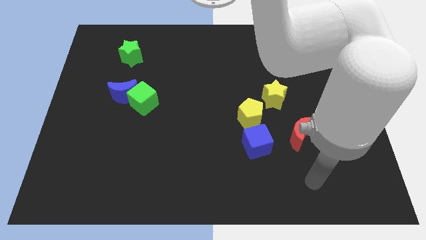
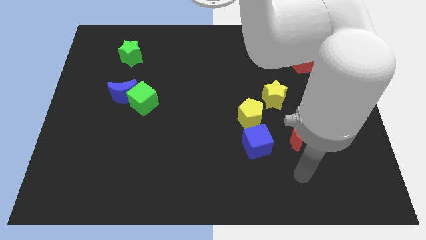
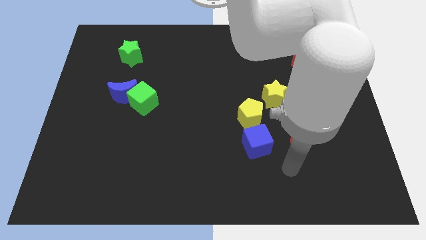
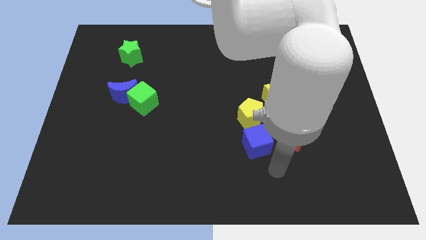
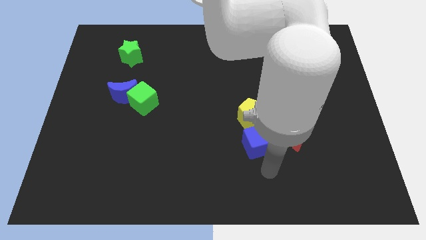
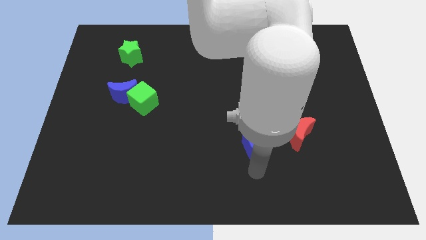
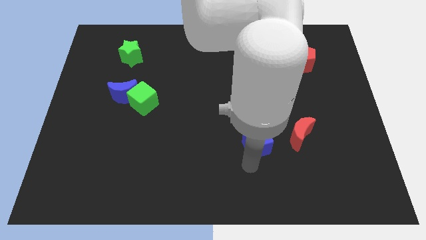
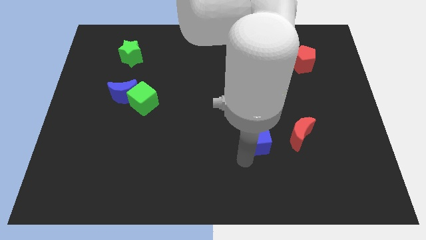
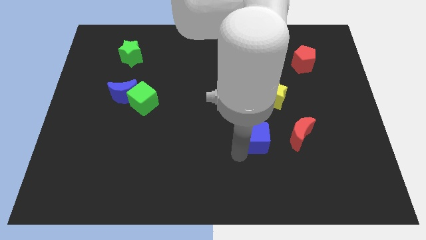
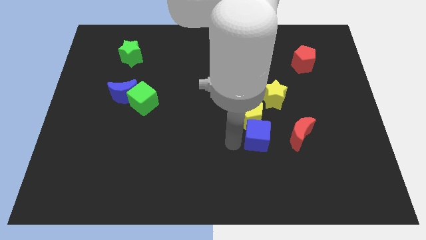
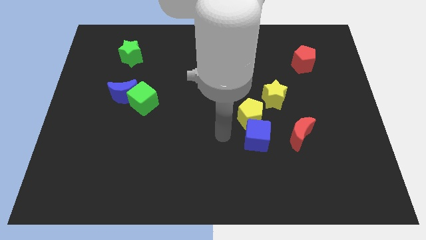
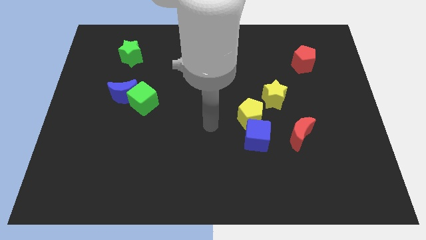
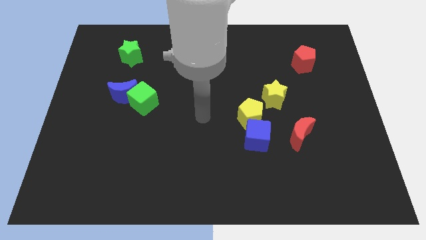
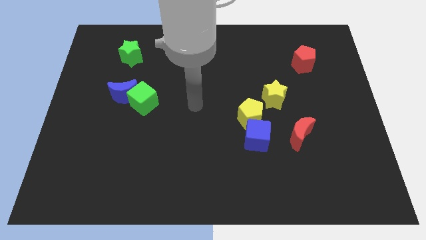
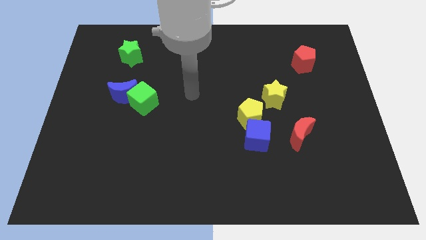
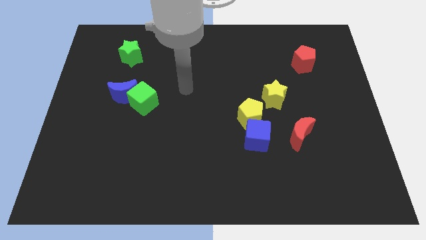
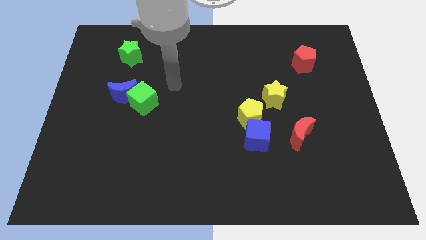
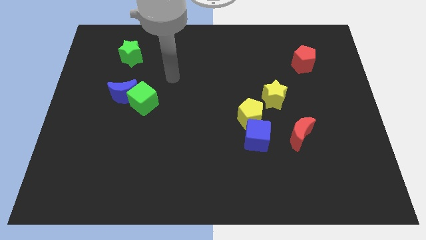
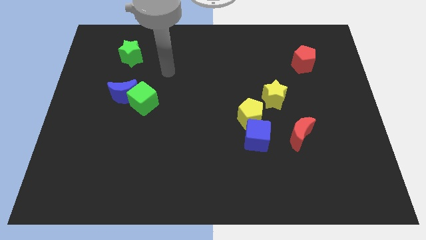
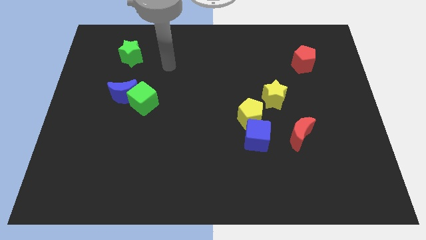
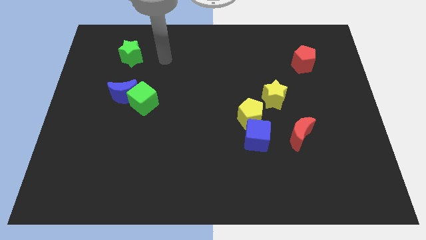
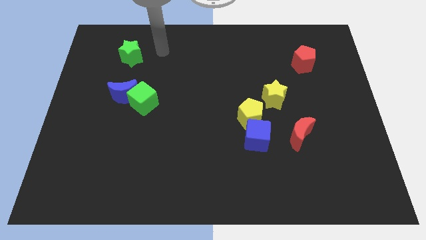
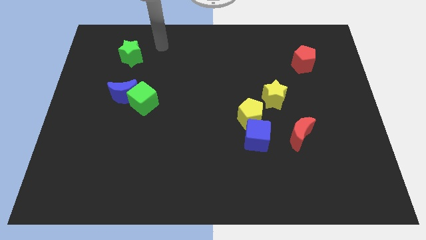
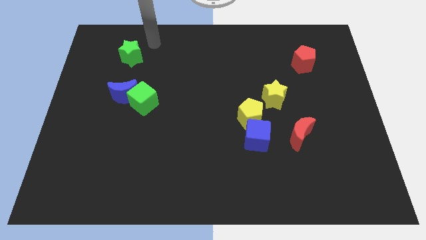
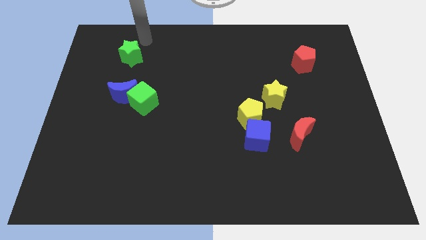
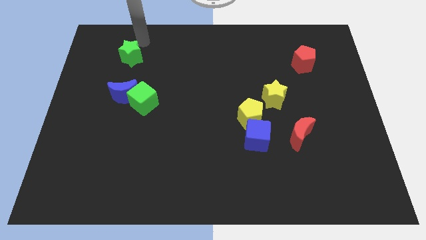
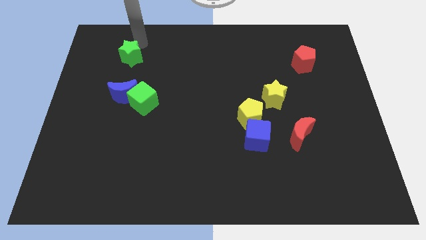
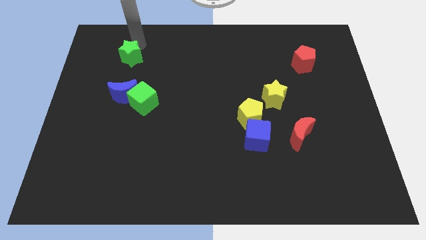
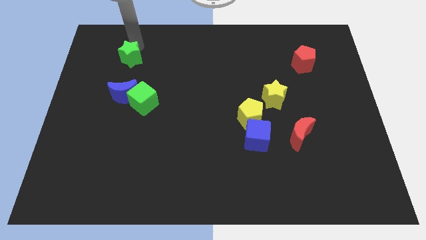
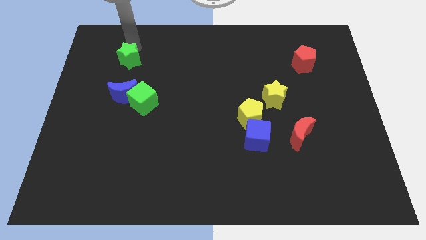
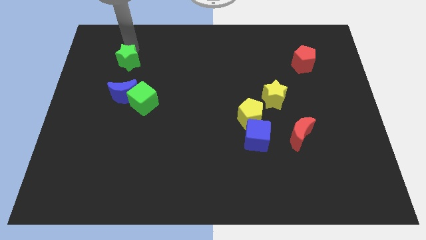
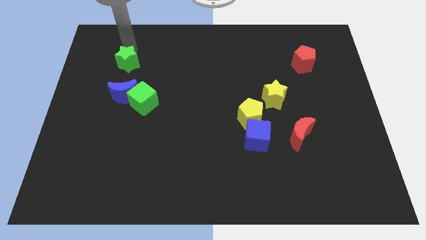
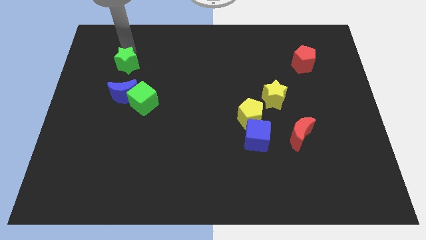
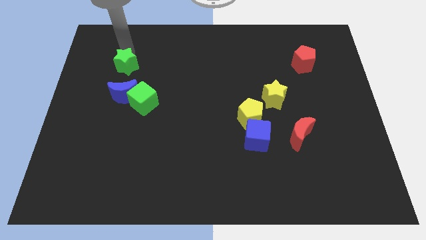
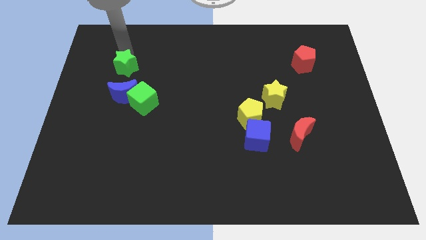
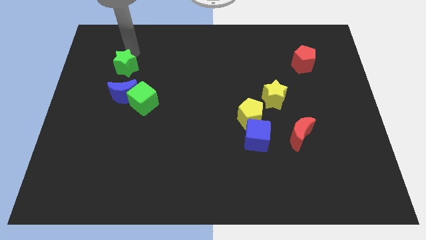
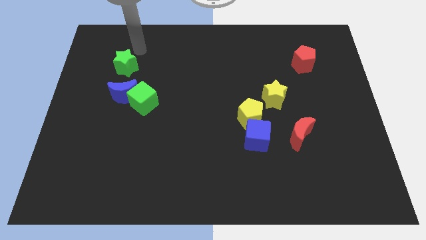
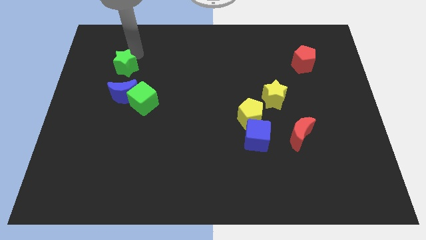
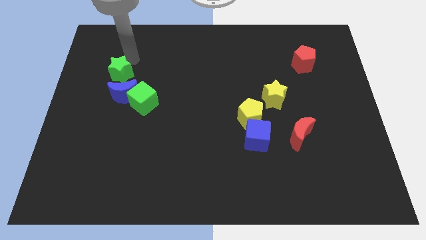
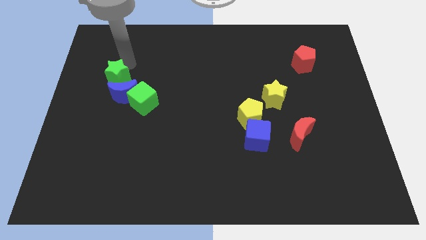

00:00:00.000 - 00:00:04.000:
slightly push the green star downwards

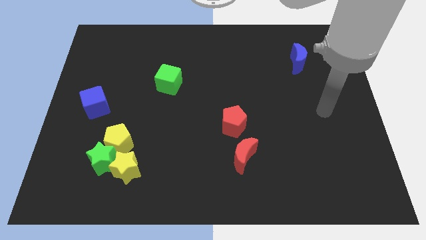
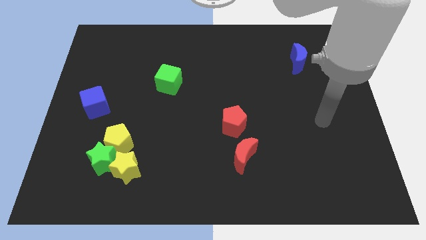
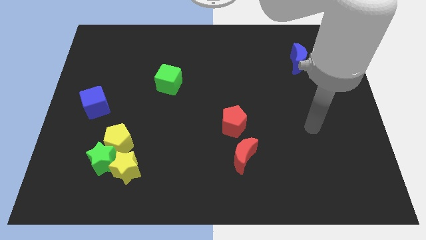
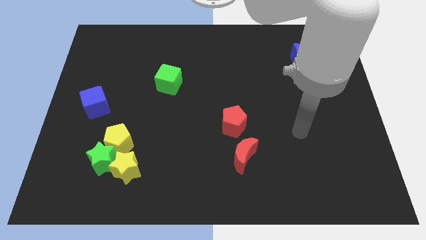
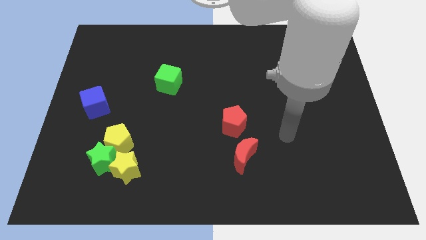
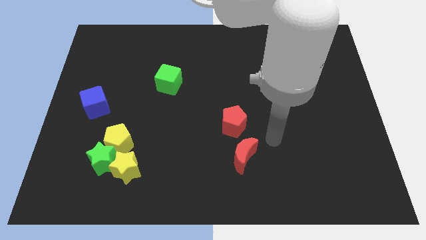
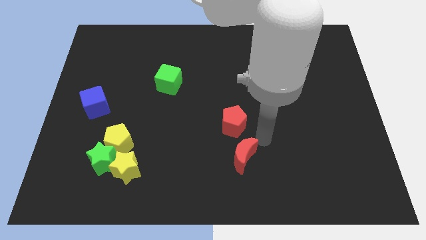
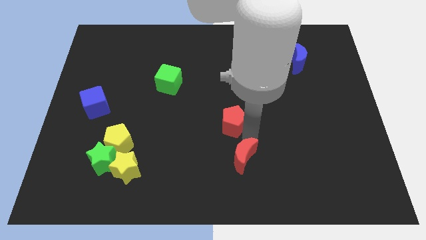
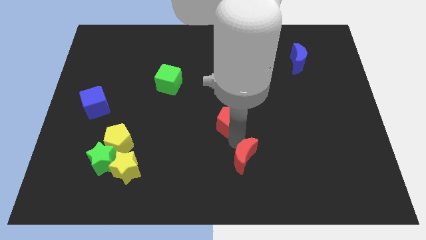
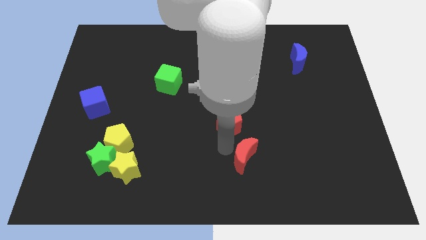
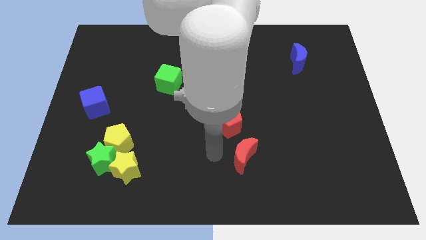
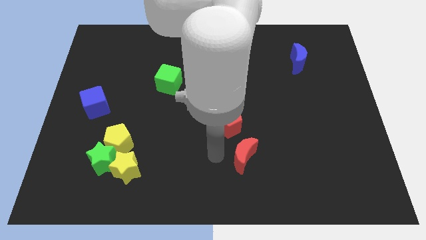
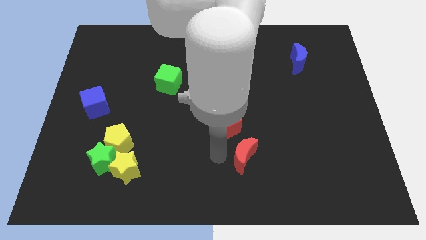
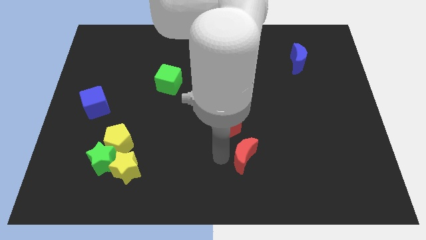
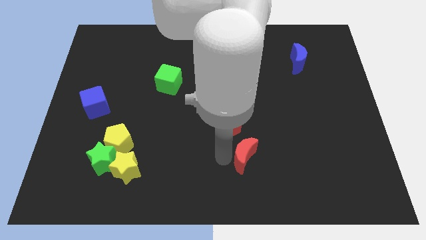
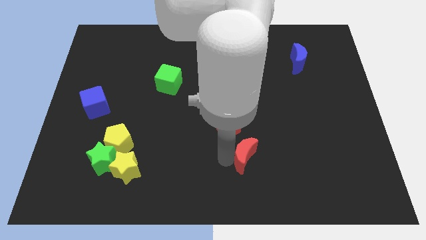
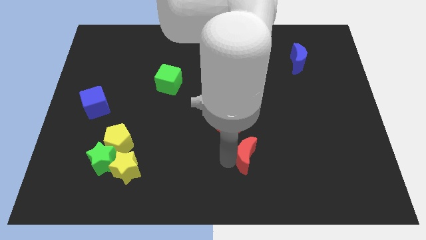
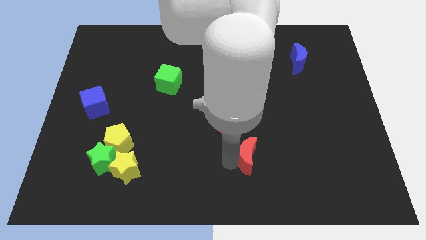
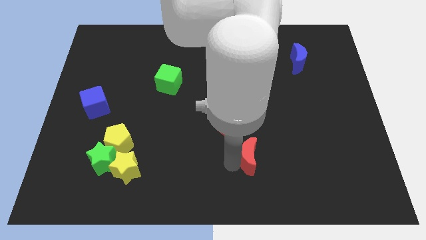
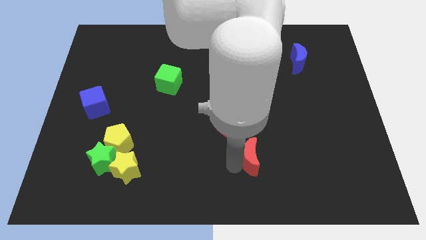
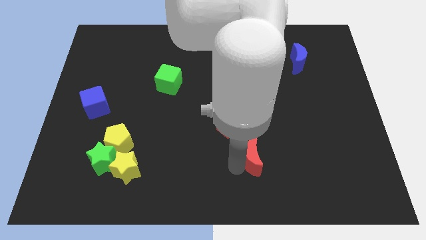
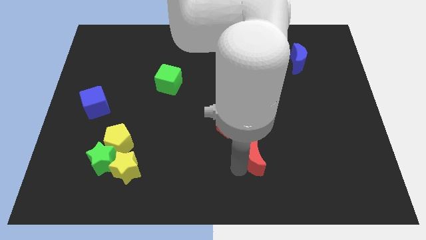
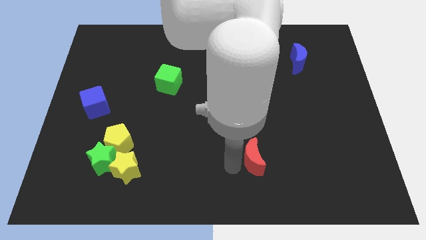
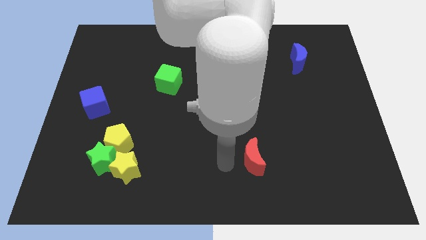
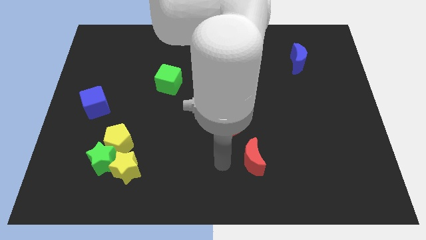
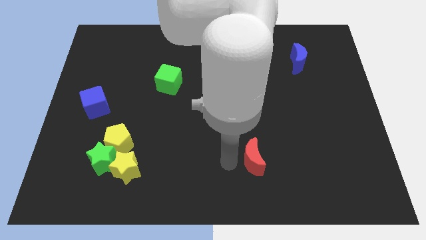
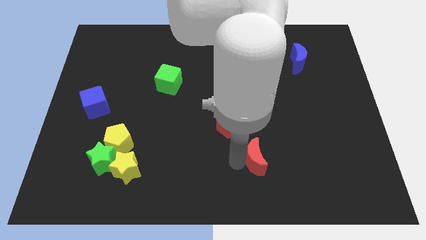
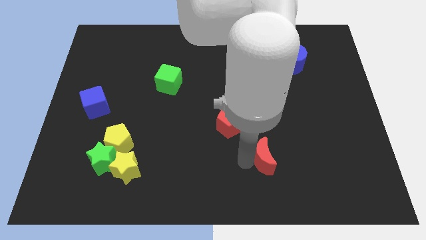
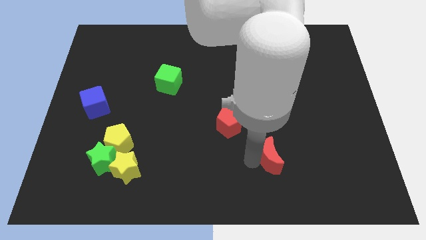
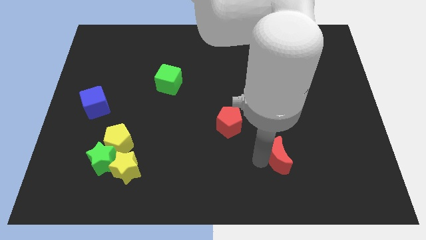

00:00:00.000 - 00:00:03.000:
push the red moon right a little bit

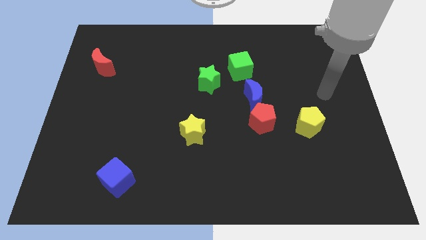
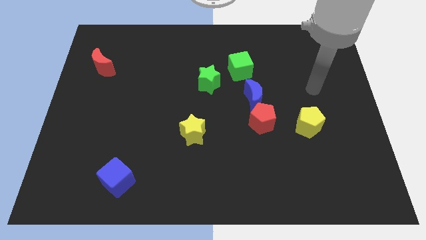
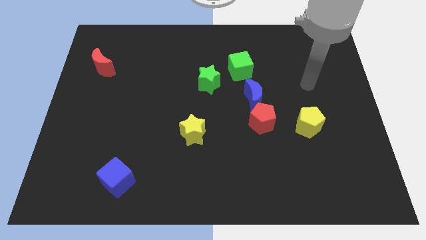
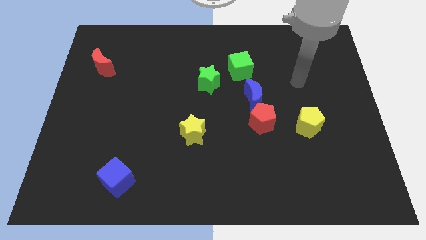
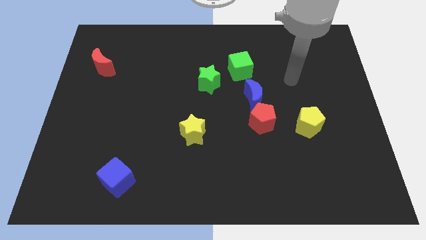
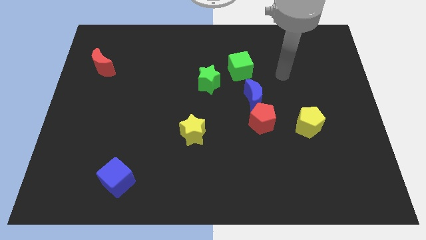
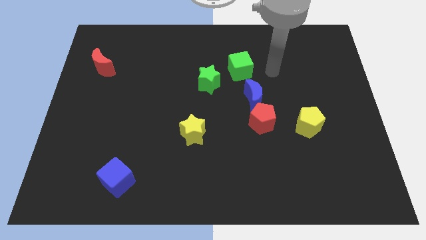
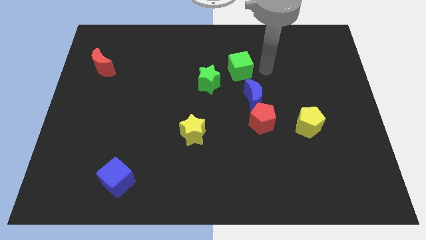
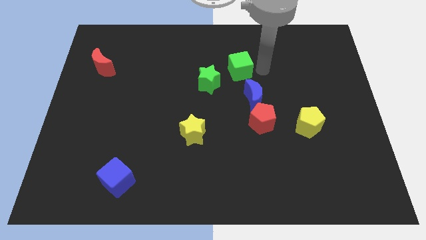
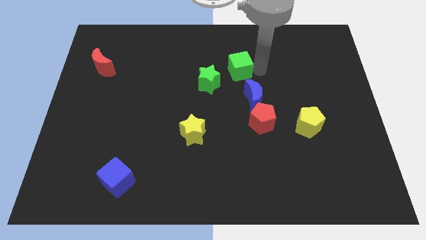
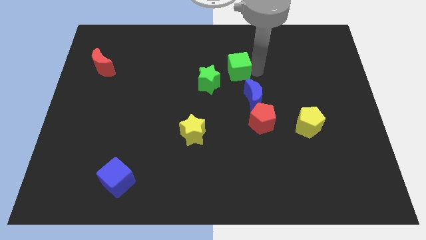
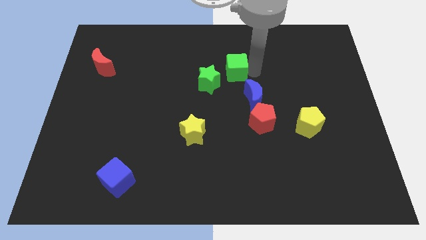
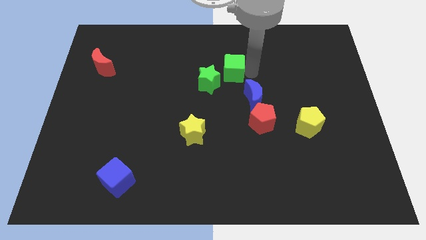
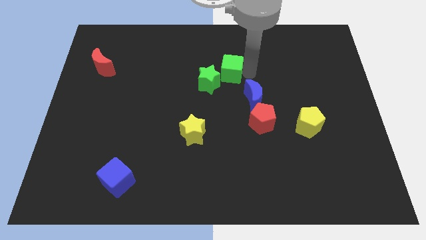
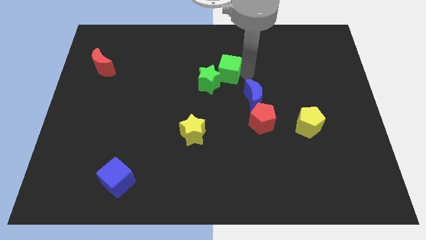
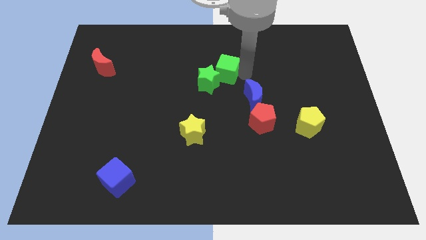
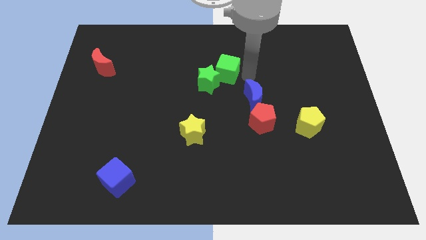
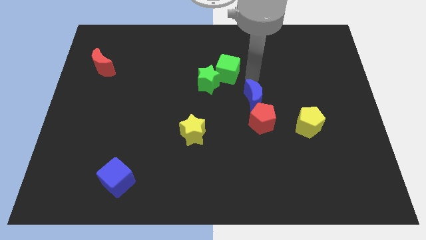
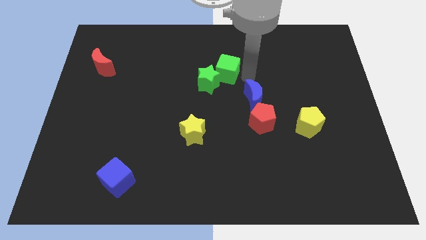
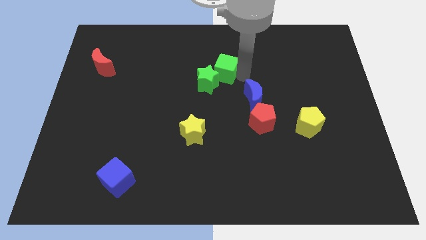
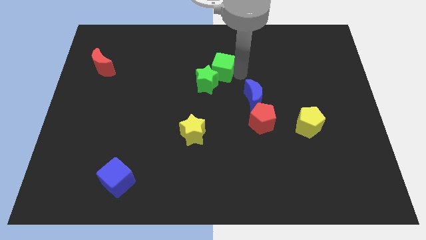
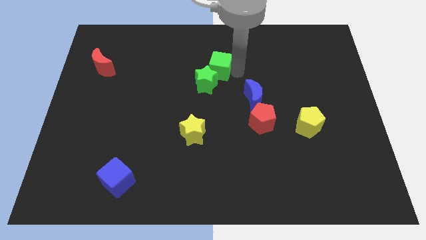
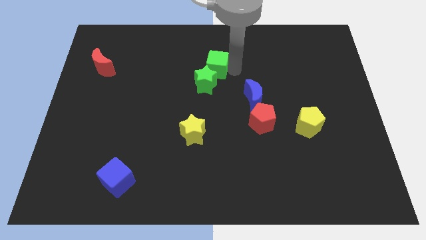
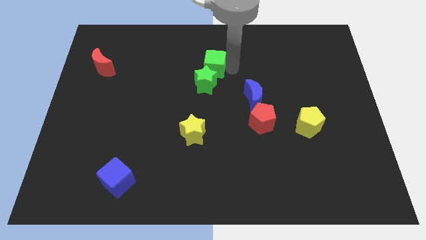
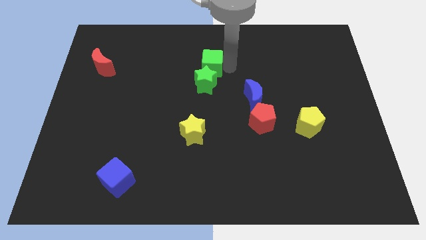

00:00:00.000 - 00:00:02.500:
move the green cube to the left a little
